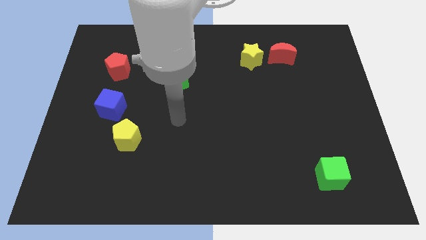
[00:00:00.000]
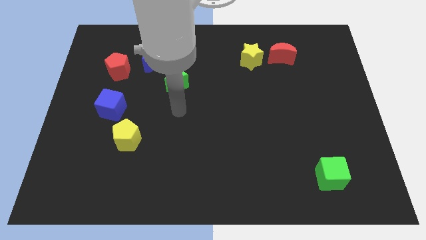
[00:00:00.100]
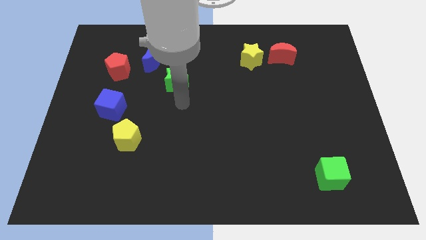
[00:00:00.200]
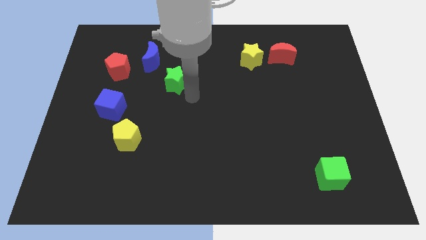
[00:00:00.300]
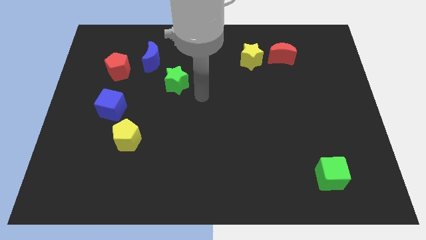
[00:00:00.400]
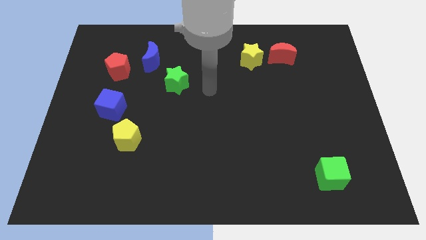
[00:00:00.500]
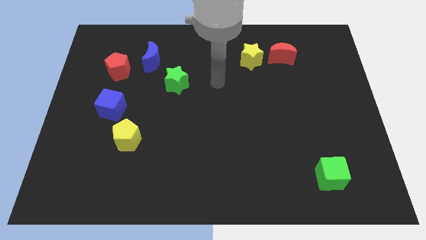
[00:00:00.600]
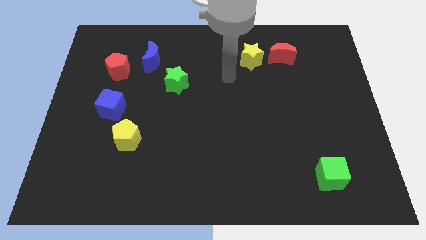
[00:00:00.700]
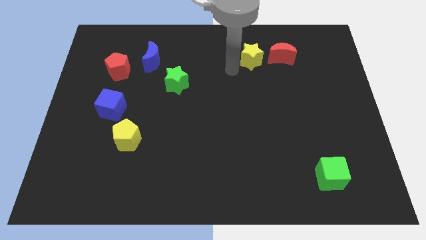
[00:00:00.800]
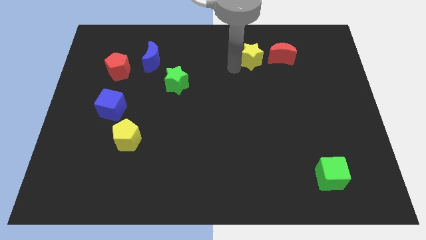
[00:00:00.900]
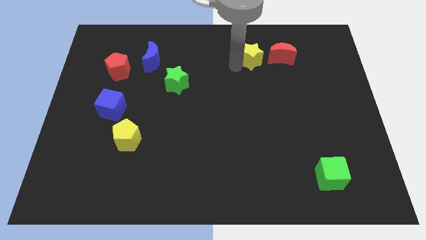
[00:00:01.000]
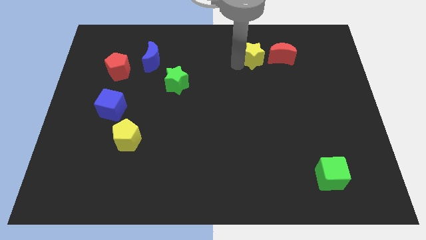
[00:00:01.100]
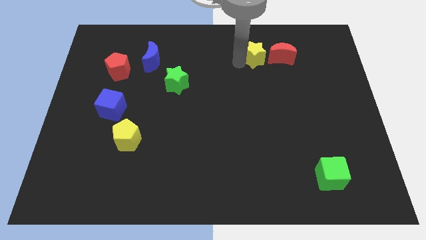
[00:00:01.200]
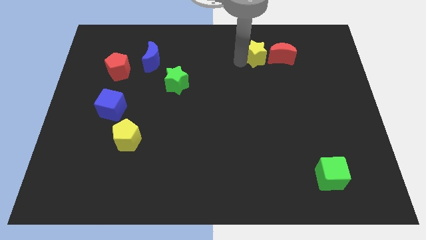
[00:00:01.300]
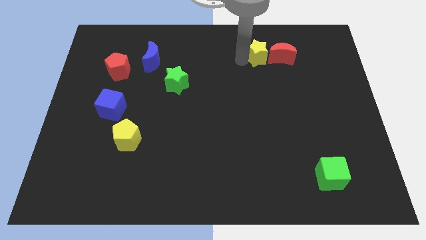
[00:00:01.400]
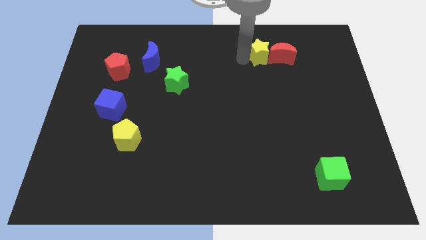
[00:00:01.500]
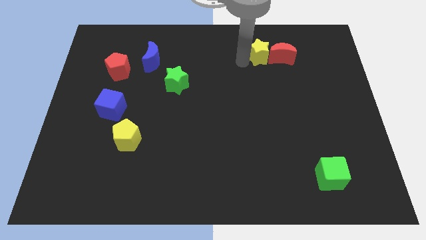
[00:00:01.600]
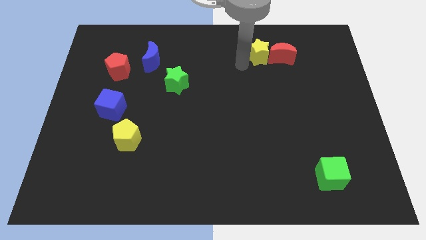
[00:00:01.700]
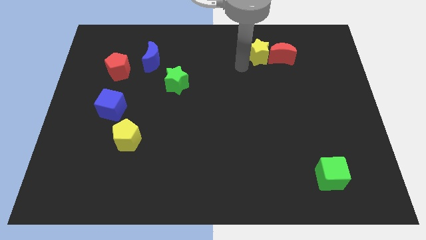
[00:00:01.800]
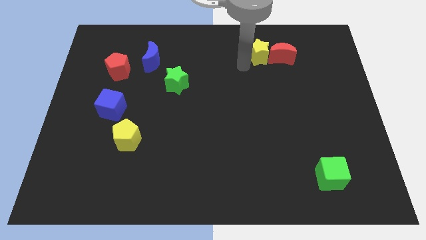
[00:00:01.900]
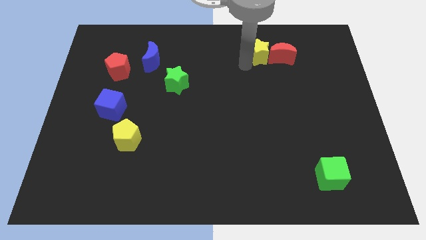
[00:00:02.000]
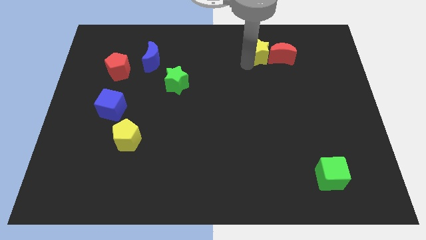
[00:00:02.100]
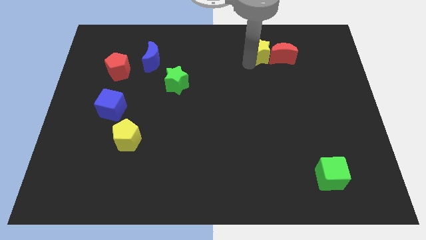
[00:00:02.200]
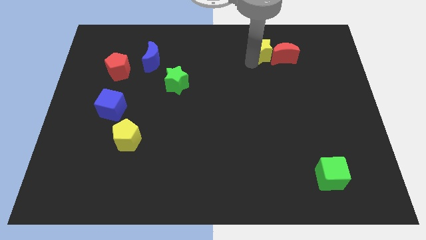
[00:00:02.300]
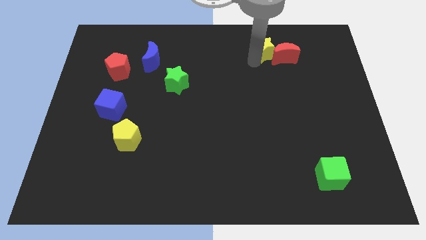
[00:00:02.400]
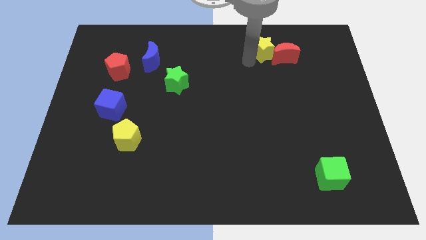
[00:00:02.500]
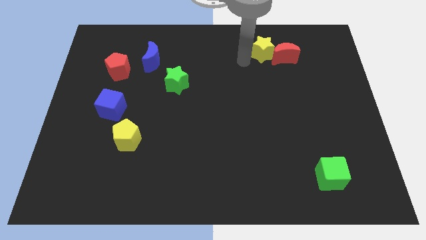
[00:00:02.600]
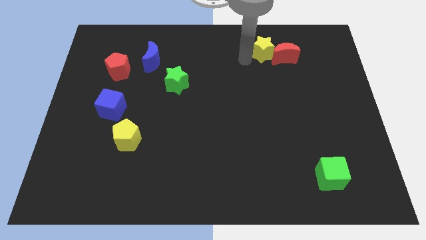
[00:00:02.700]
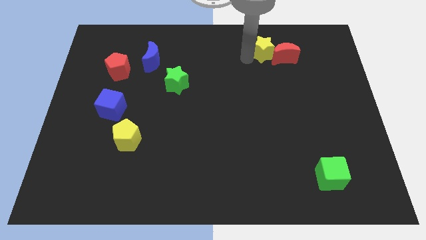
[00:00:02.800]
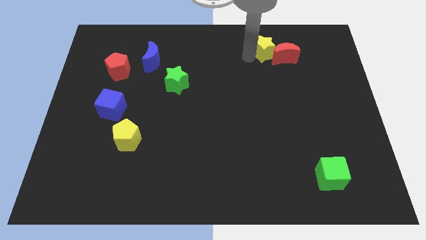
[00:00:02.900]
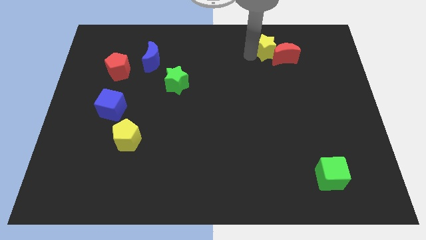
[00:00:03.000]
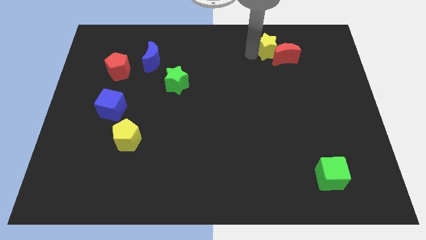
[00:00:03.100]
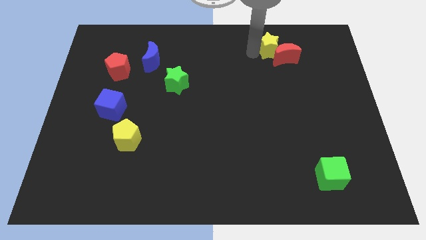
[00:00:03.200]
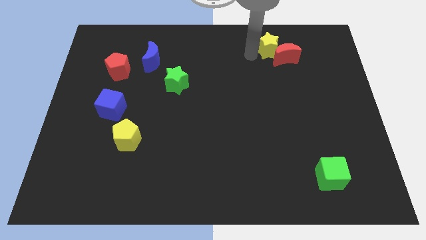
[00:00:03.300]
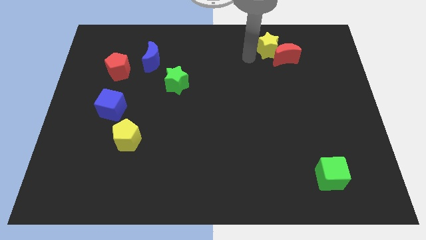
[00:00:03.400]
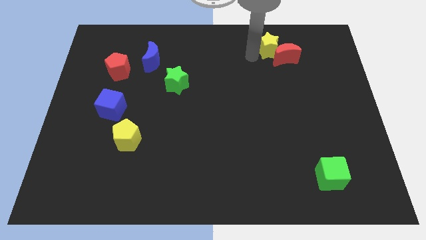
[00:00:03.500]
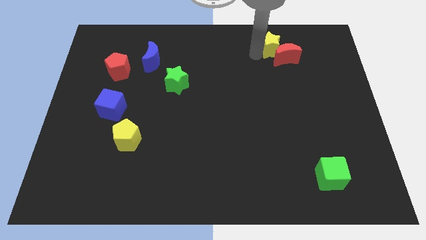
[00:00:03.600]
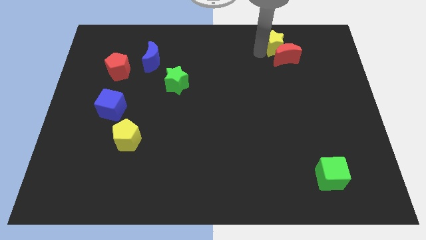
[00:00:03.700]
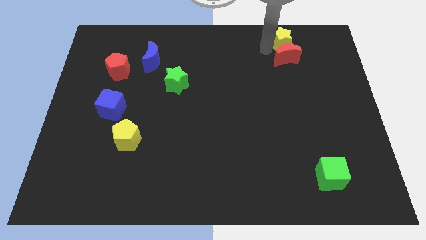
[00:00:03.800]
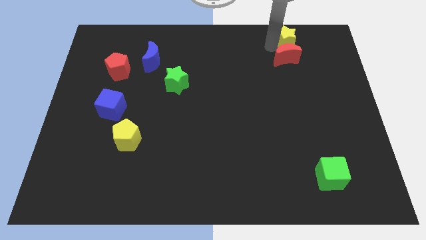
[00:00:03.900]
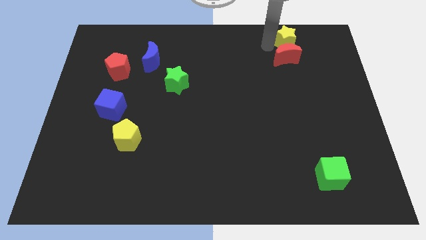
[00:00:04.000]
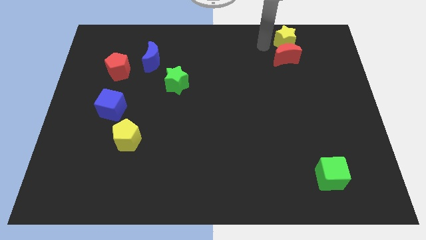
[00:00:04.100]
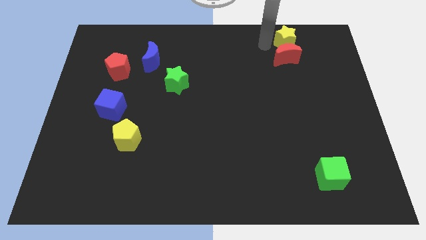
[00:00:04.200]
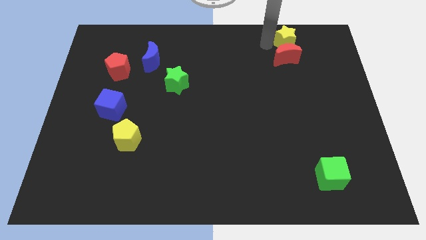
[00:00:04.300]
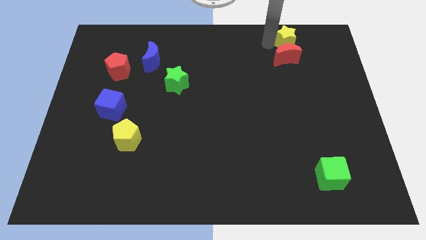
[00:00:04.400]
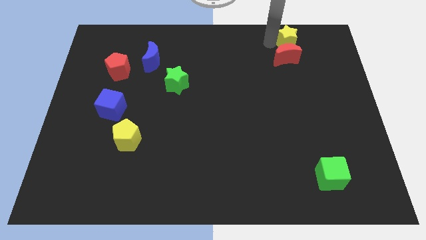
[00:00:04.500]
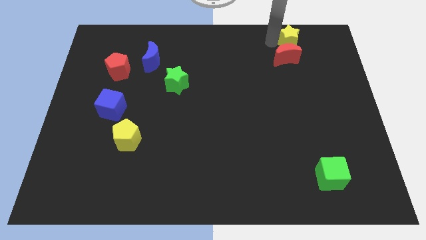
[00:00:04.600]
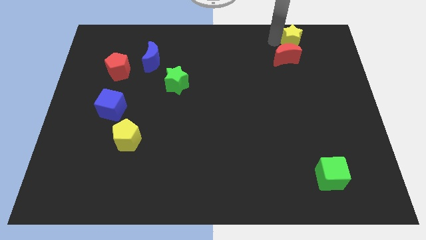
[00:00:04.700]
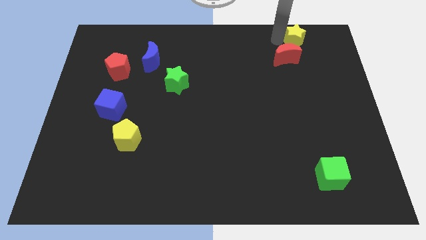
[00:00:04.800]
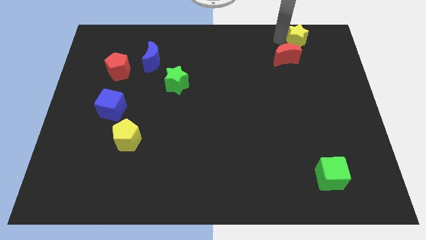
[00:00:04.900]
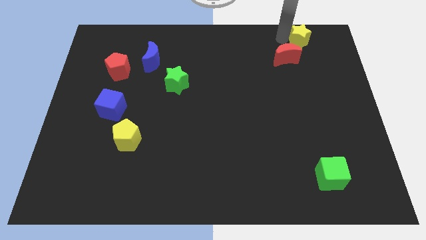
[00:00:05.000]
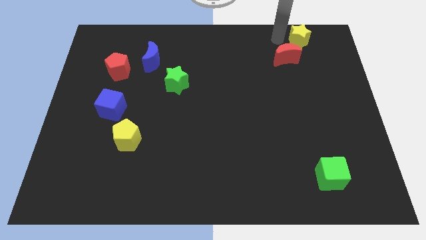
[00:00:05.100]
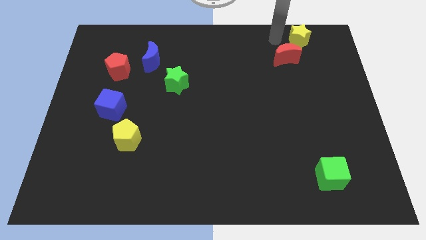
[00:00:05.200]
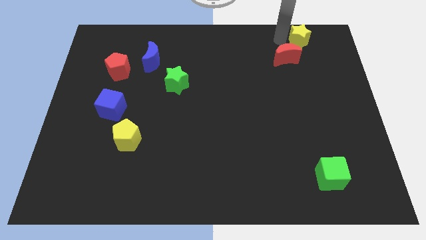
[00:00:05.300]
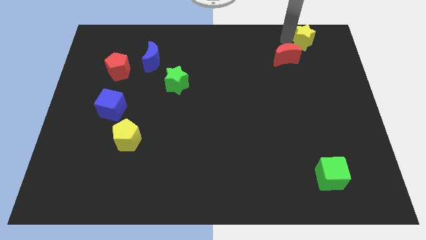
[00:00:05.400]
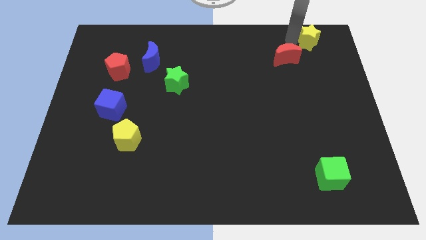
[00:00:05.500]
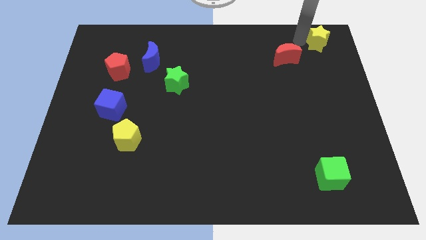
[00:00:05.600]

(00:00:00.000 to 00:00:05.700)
push the yellow star to the top right corner
